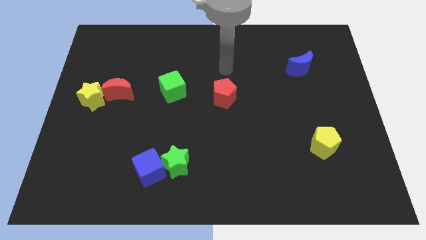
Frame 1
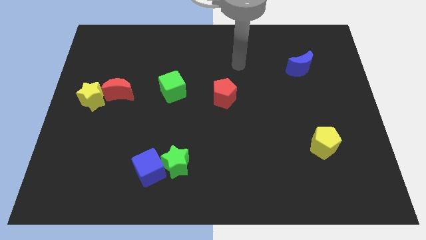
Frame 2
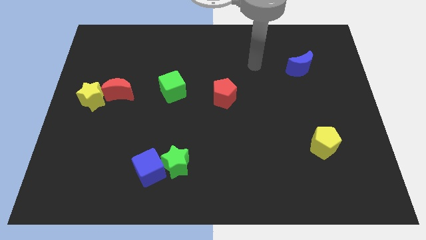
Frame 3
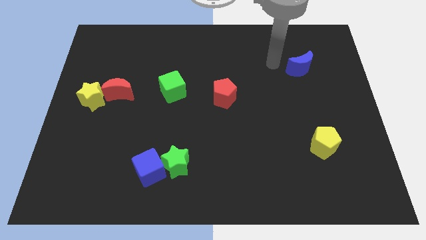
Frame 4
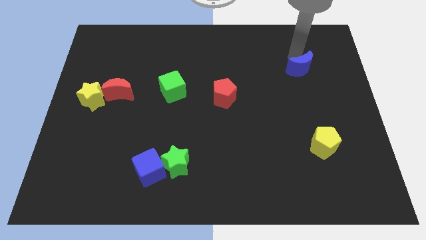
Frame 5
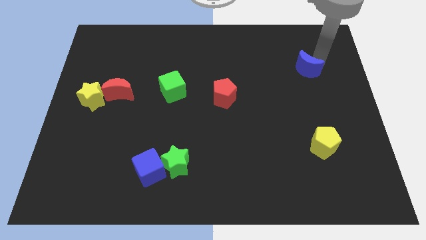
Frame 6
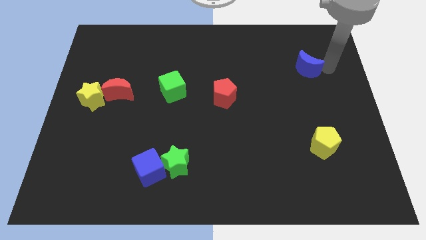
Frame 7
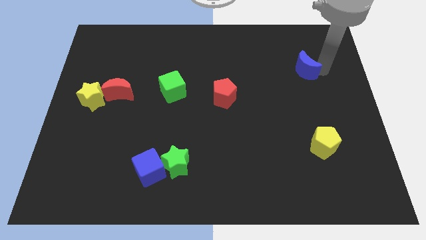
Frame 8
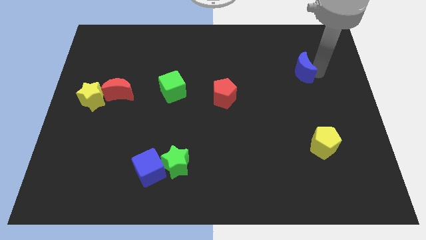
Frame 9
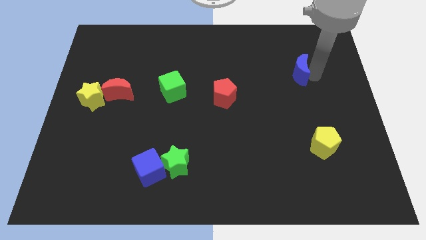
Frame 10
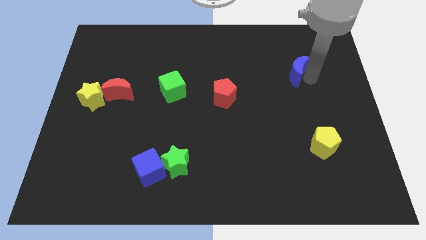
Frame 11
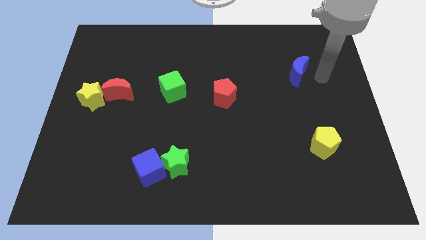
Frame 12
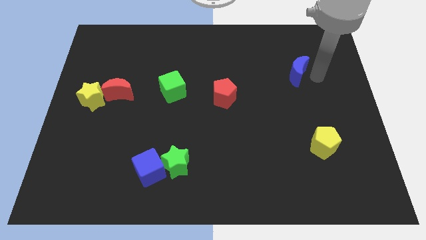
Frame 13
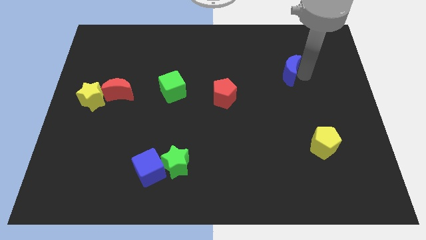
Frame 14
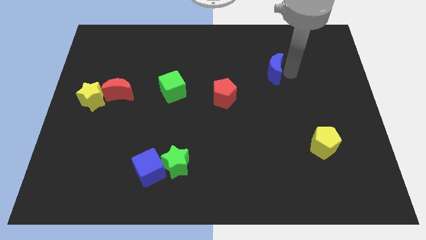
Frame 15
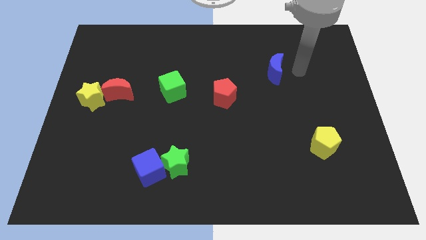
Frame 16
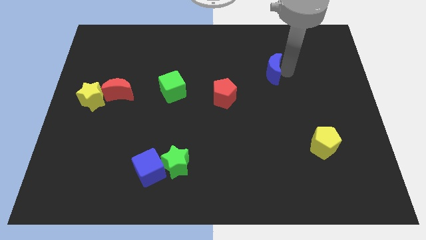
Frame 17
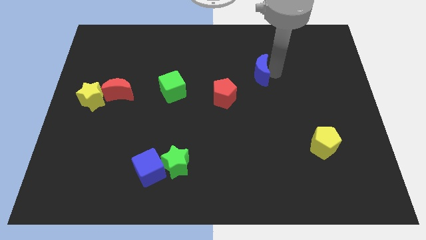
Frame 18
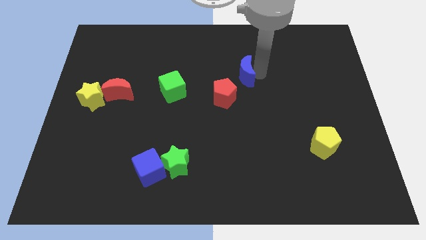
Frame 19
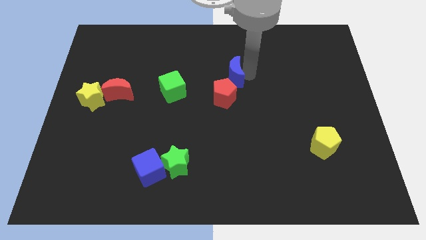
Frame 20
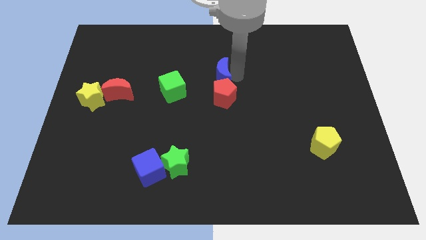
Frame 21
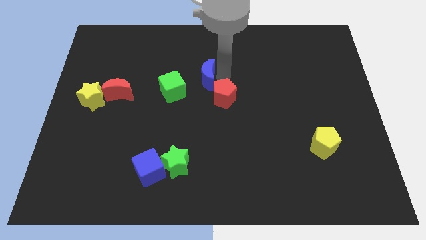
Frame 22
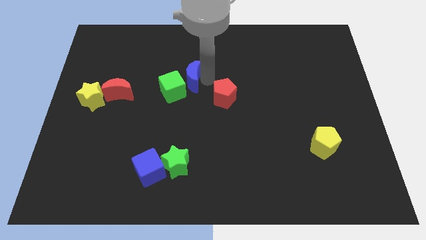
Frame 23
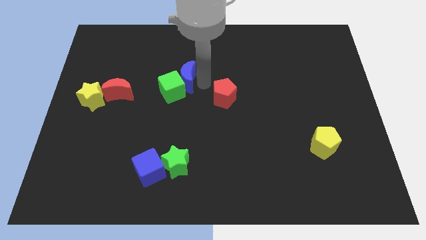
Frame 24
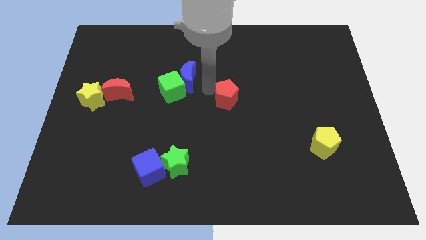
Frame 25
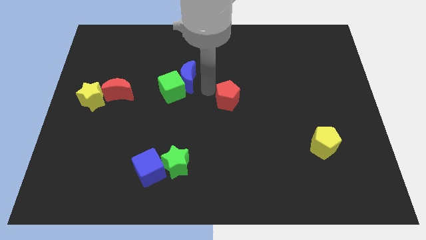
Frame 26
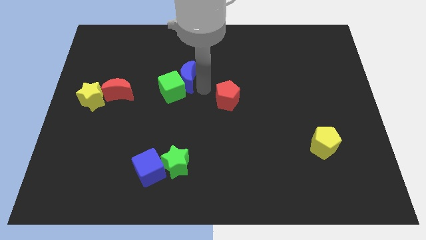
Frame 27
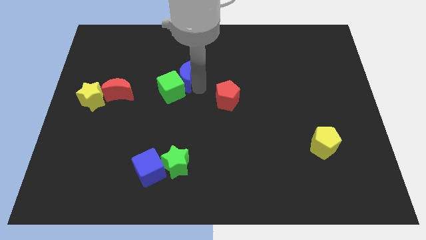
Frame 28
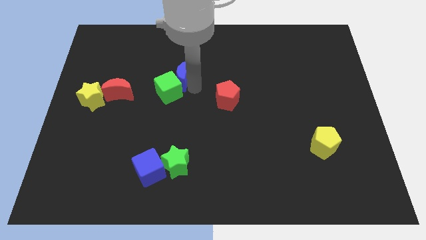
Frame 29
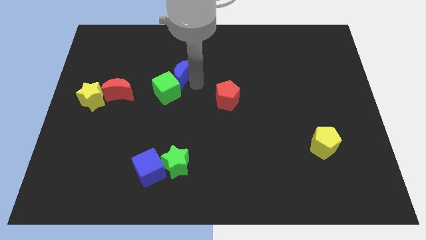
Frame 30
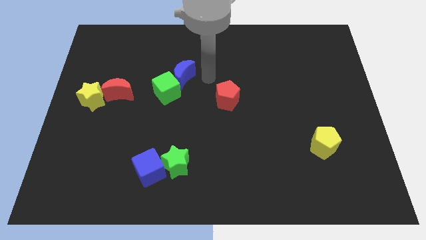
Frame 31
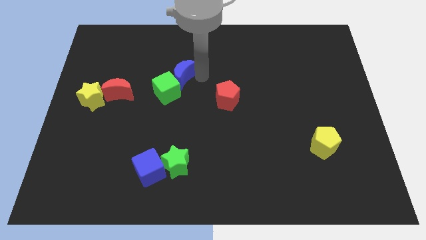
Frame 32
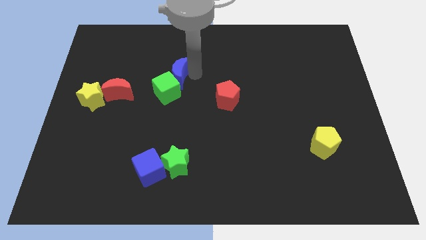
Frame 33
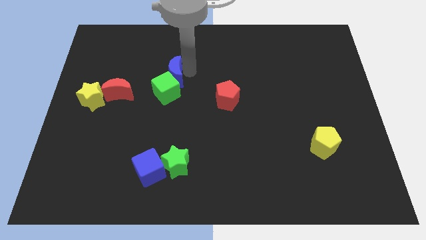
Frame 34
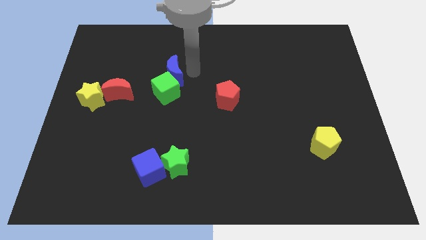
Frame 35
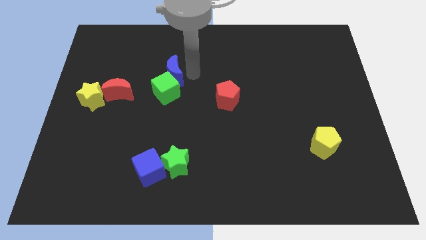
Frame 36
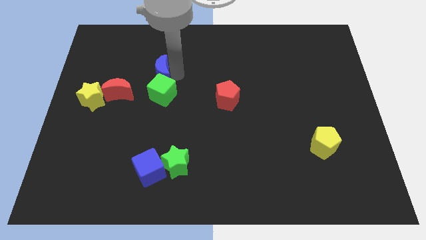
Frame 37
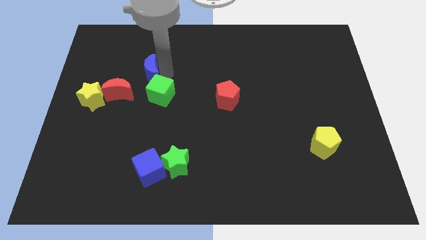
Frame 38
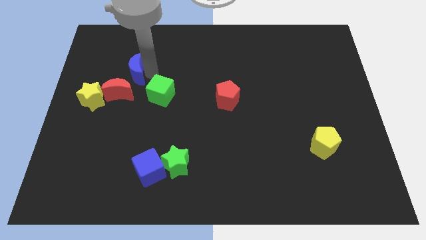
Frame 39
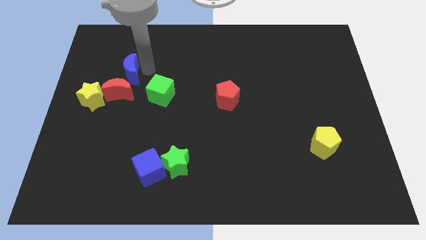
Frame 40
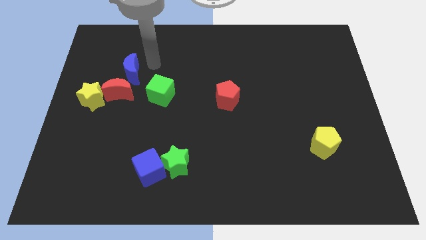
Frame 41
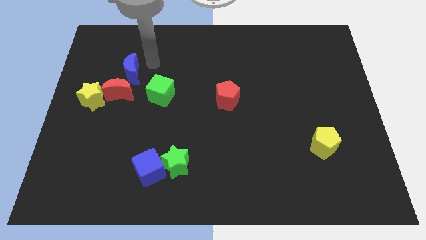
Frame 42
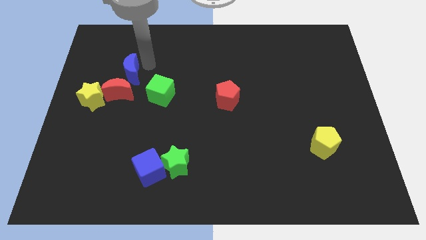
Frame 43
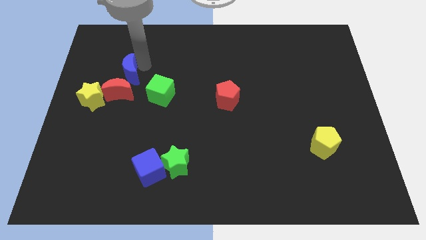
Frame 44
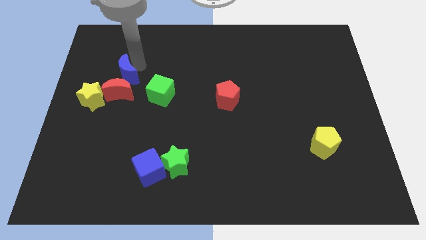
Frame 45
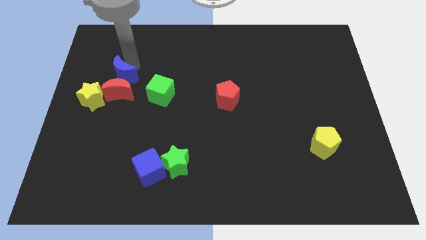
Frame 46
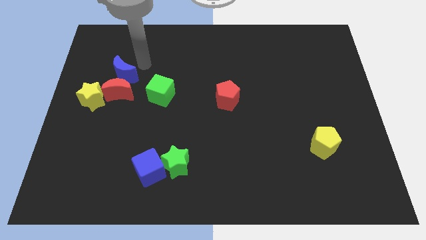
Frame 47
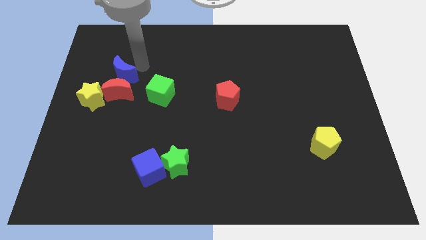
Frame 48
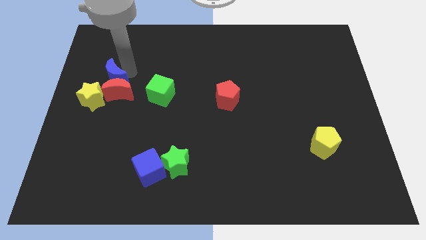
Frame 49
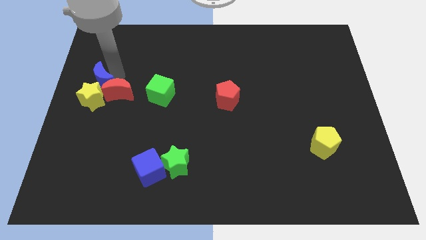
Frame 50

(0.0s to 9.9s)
put the blue moon next to the yellow star

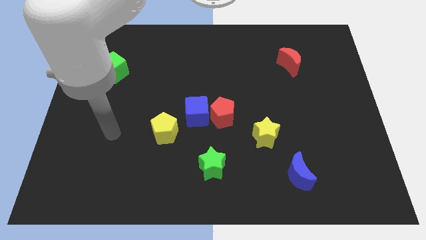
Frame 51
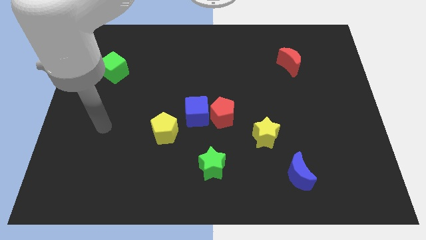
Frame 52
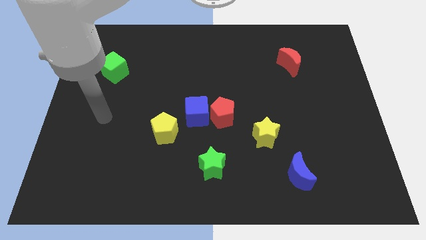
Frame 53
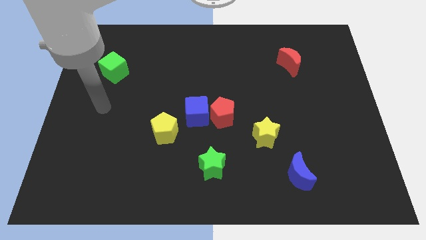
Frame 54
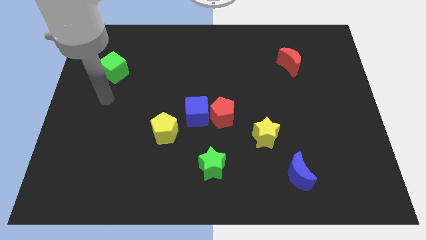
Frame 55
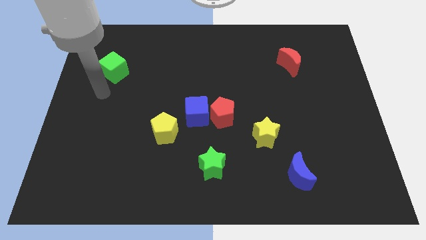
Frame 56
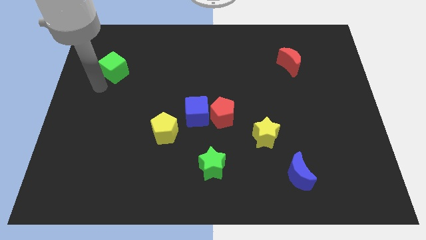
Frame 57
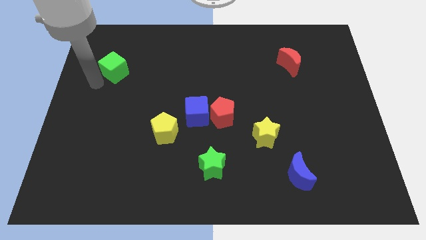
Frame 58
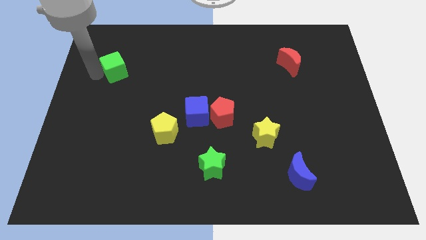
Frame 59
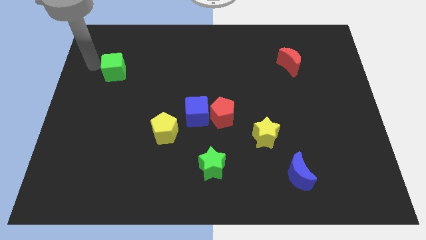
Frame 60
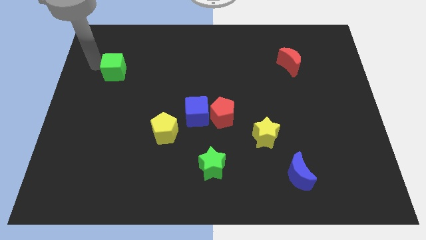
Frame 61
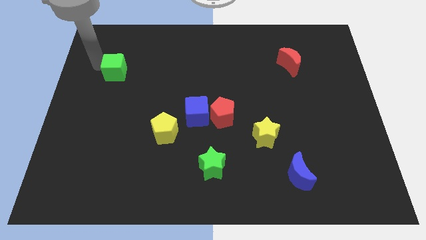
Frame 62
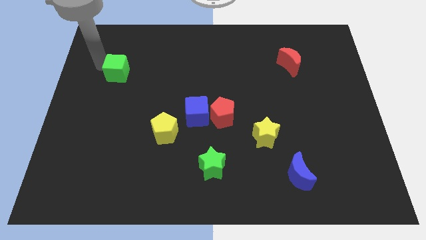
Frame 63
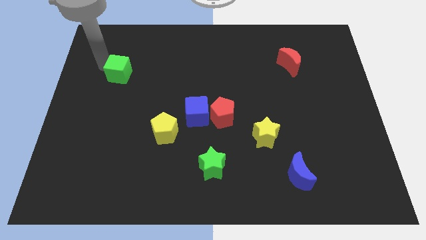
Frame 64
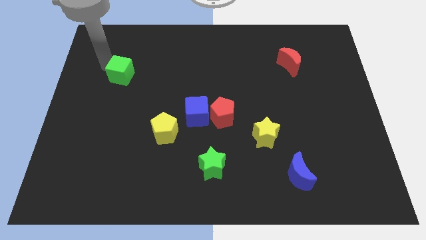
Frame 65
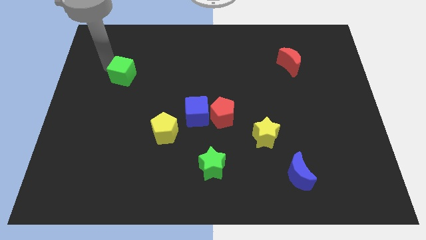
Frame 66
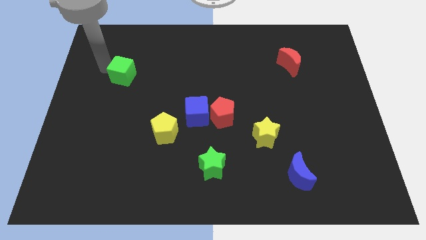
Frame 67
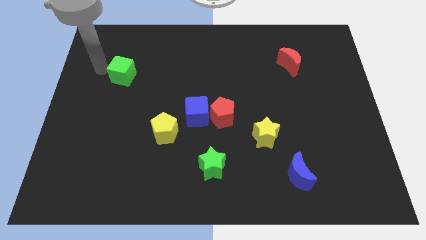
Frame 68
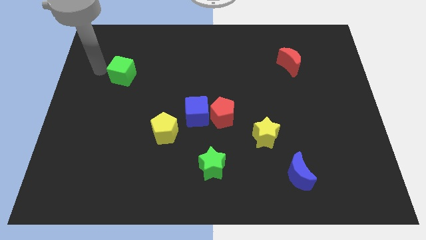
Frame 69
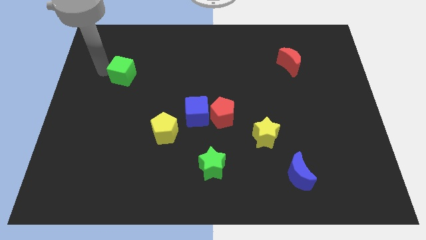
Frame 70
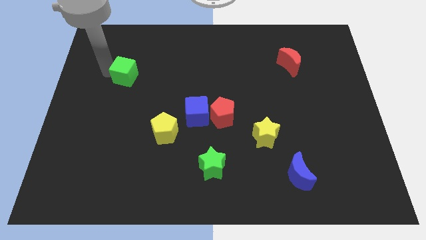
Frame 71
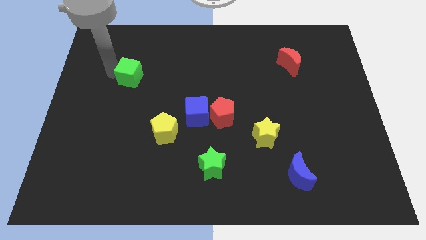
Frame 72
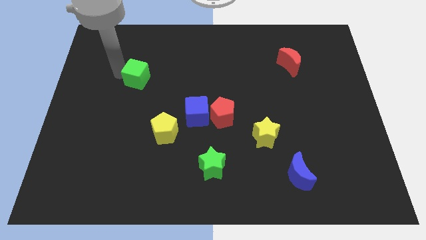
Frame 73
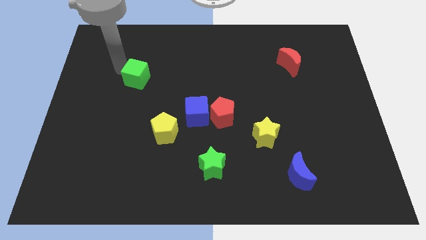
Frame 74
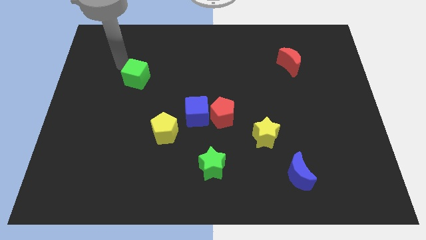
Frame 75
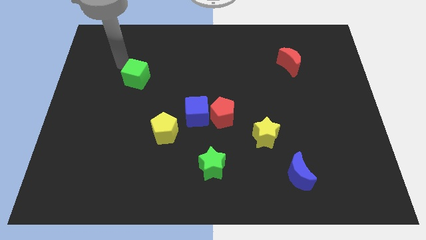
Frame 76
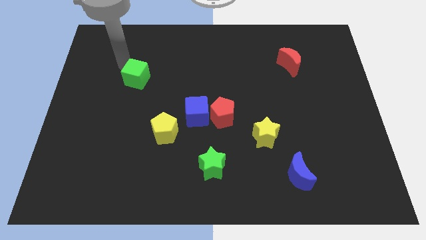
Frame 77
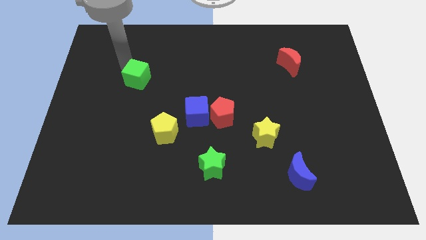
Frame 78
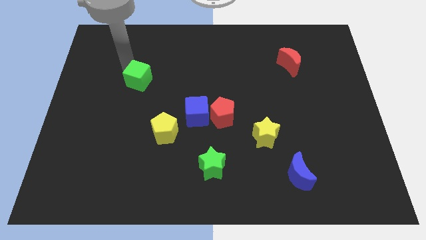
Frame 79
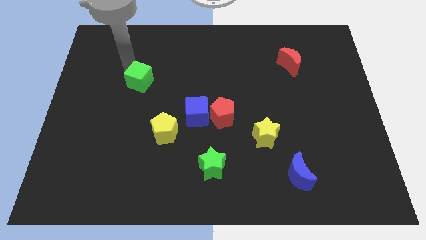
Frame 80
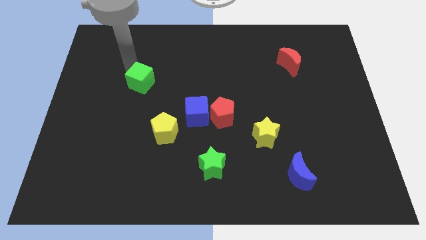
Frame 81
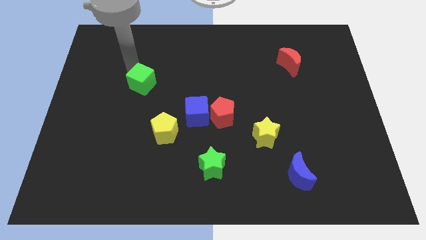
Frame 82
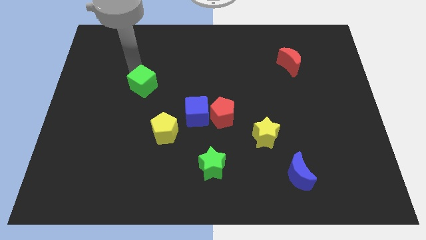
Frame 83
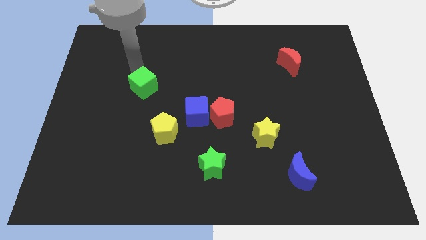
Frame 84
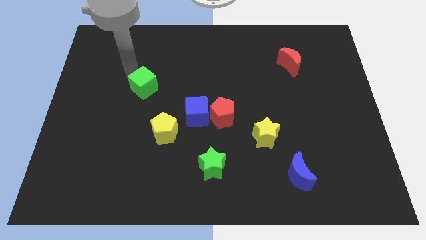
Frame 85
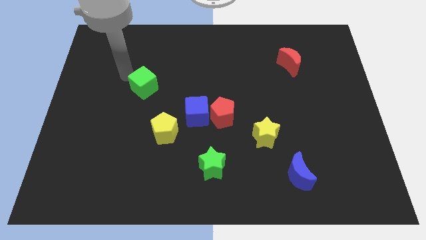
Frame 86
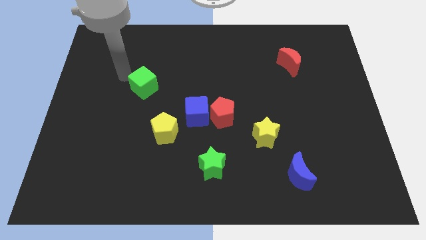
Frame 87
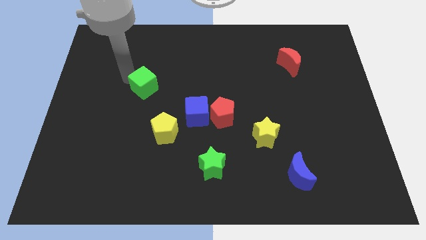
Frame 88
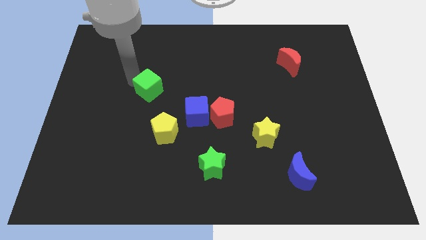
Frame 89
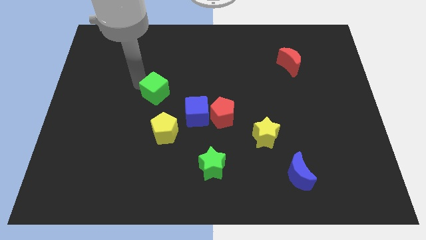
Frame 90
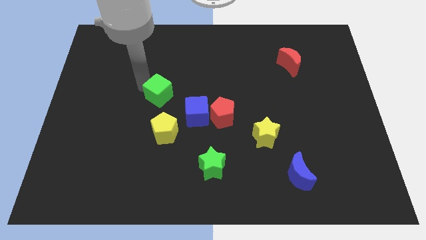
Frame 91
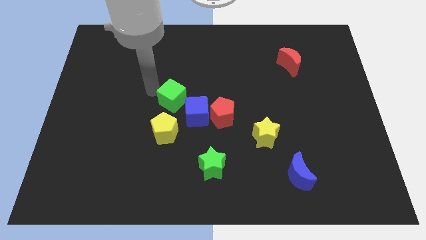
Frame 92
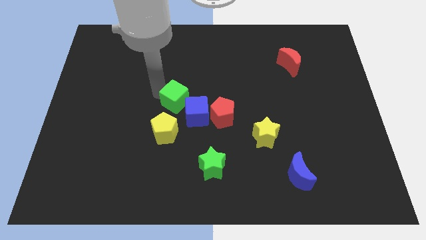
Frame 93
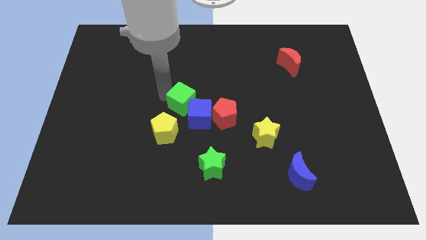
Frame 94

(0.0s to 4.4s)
move the green cube close to the blue cube
